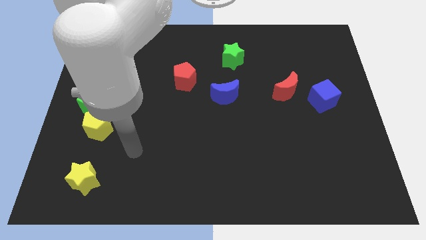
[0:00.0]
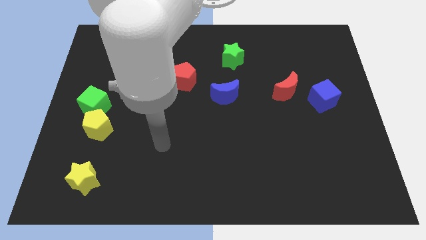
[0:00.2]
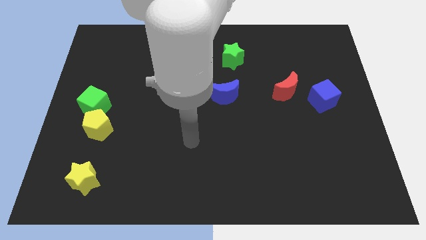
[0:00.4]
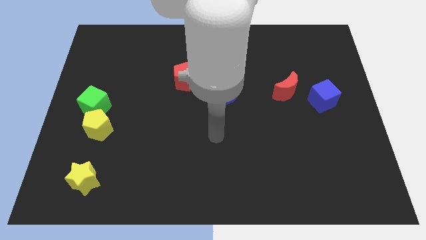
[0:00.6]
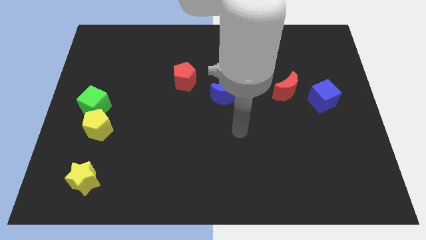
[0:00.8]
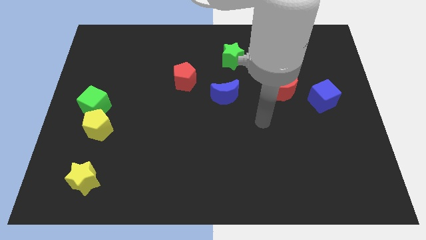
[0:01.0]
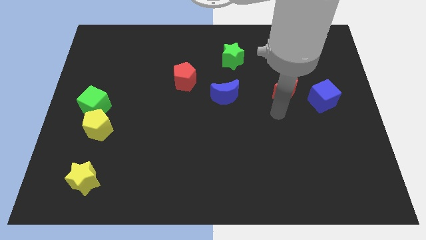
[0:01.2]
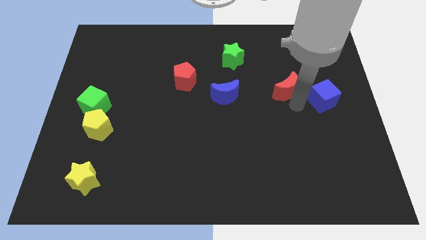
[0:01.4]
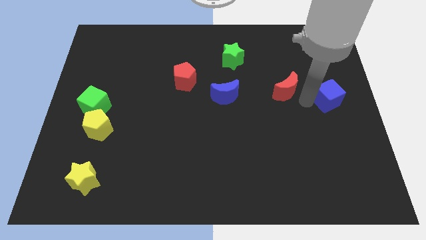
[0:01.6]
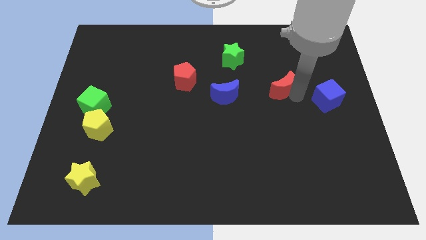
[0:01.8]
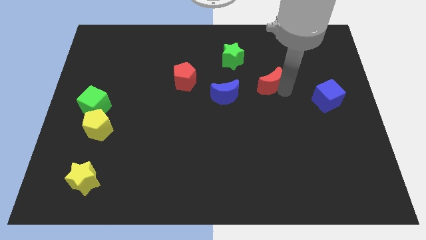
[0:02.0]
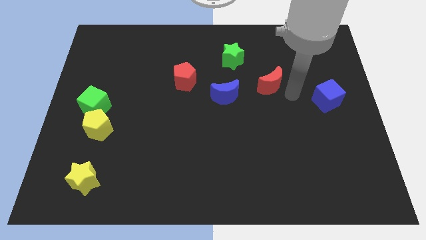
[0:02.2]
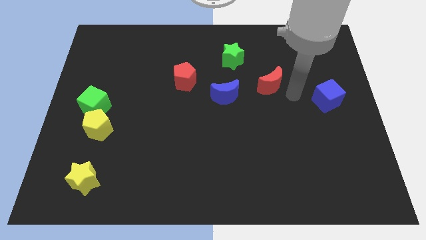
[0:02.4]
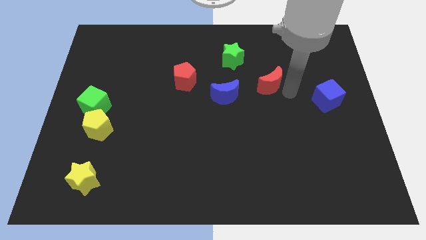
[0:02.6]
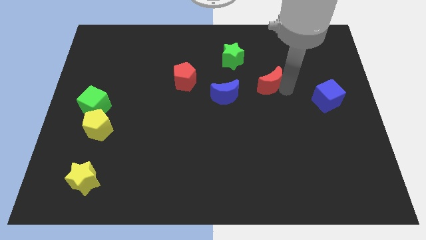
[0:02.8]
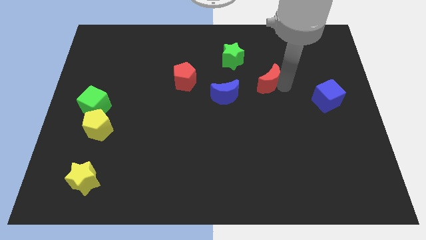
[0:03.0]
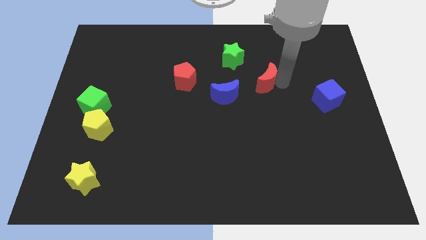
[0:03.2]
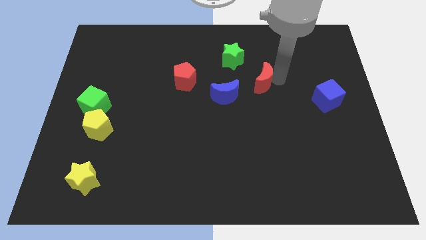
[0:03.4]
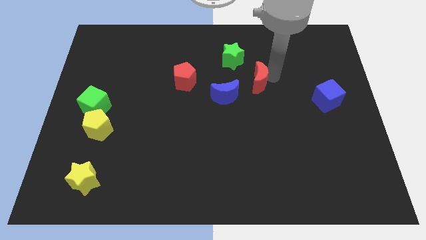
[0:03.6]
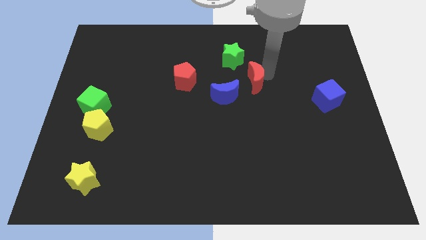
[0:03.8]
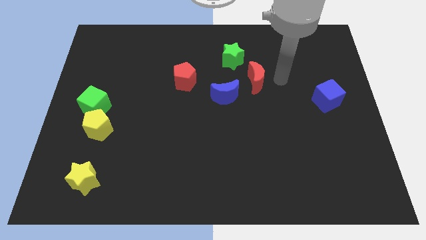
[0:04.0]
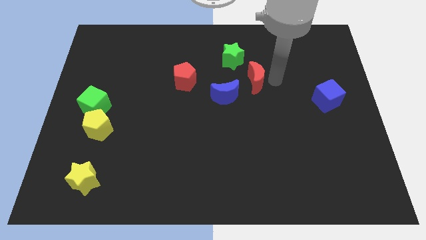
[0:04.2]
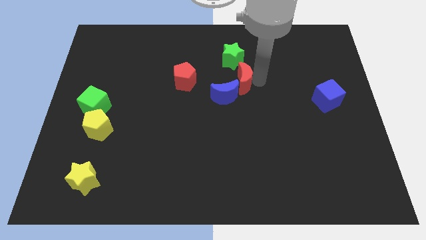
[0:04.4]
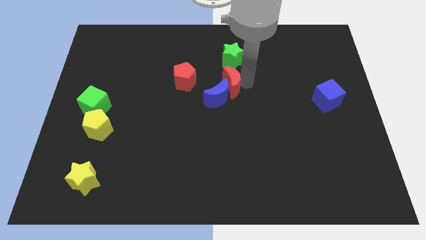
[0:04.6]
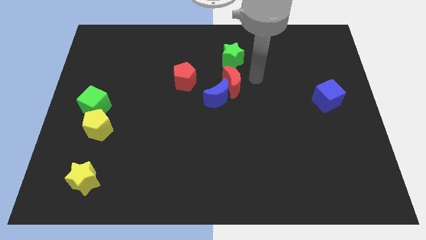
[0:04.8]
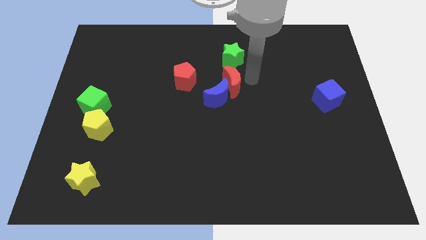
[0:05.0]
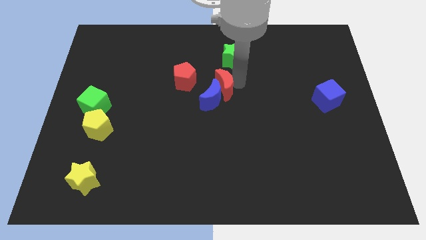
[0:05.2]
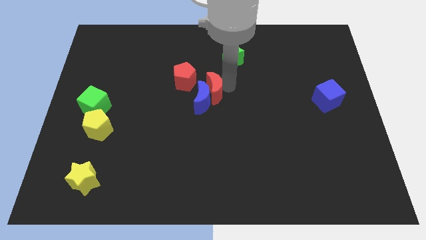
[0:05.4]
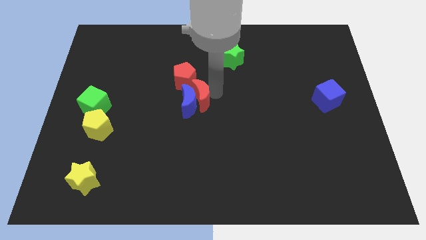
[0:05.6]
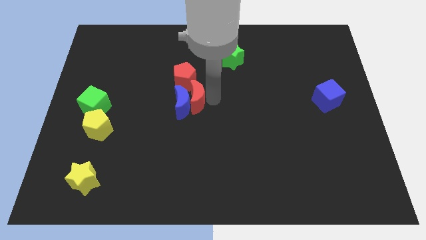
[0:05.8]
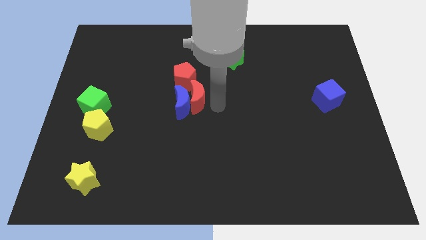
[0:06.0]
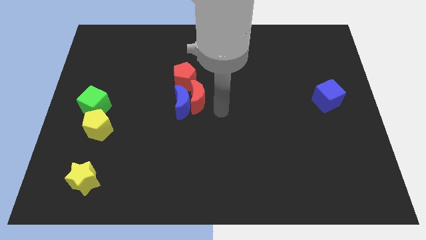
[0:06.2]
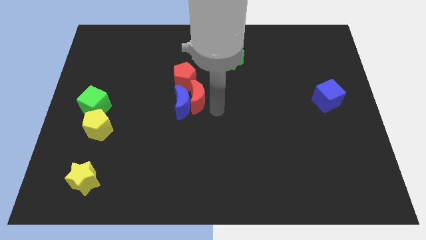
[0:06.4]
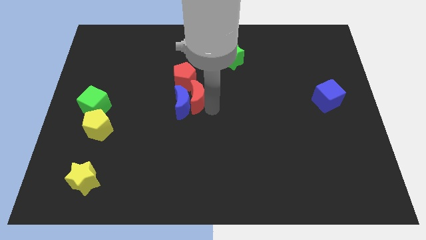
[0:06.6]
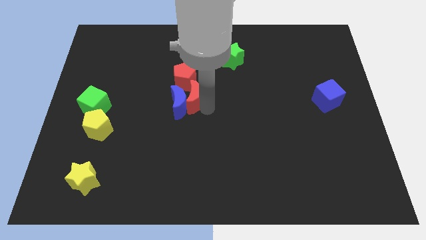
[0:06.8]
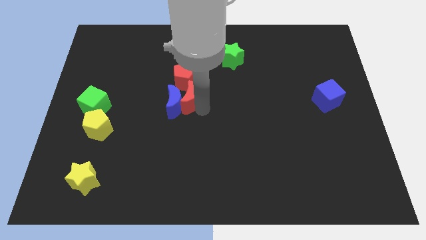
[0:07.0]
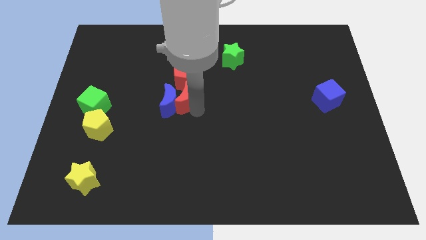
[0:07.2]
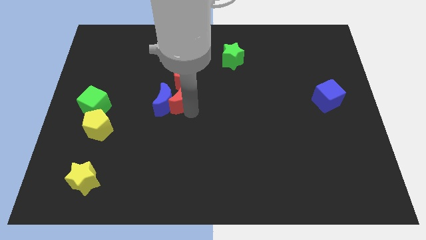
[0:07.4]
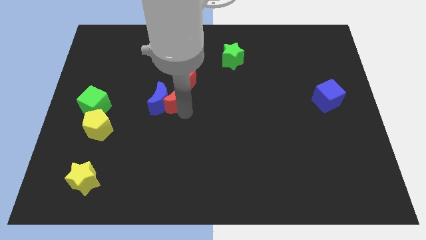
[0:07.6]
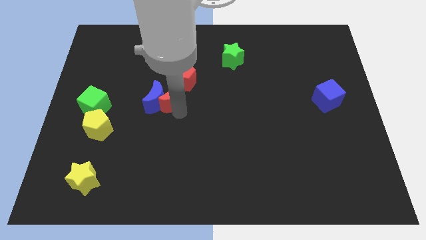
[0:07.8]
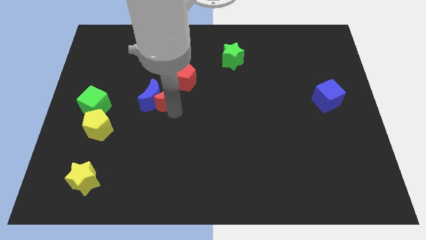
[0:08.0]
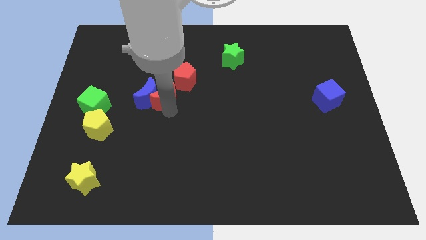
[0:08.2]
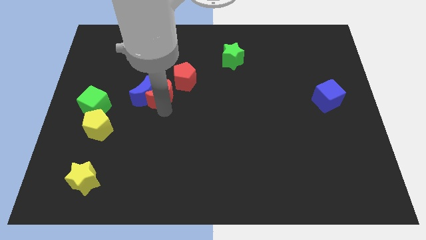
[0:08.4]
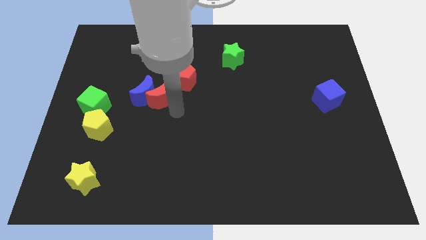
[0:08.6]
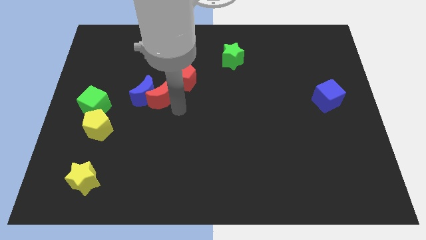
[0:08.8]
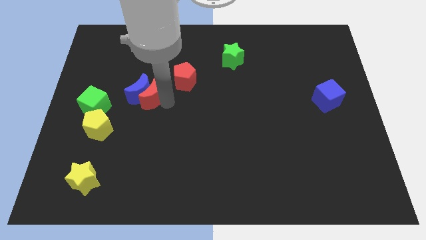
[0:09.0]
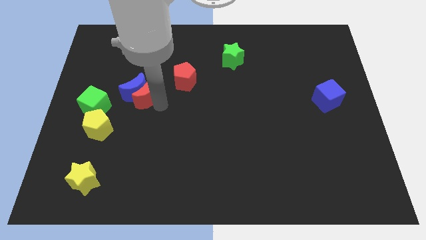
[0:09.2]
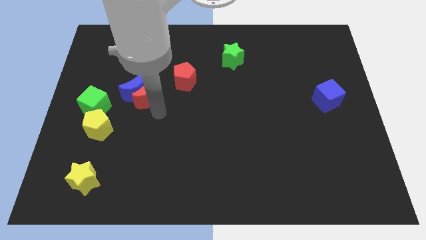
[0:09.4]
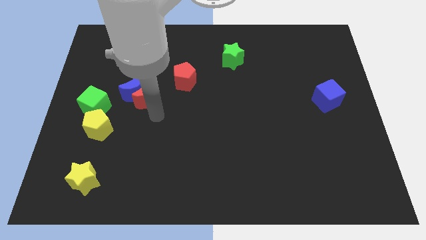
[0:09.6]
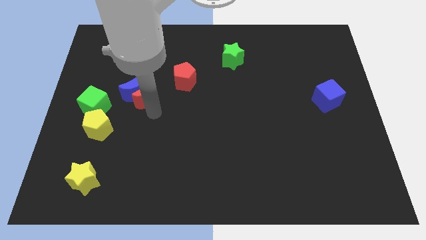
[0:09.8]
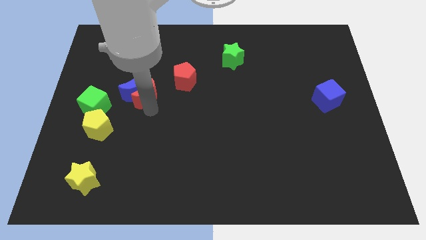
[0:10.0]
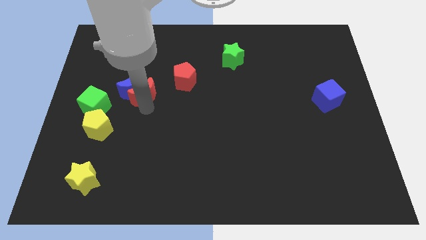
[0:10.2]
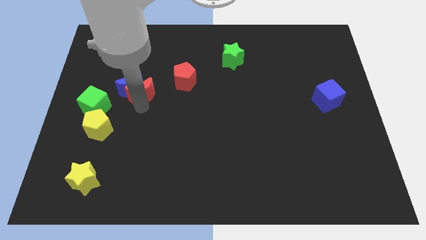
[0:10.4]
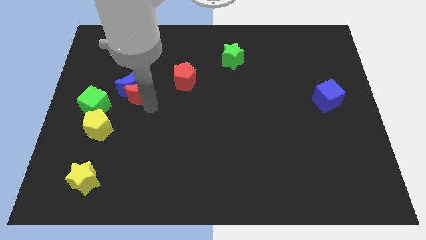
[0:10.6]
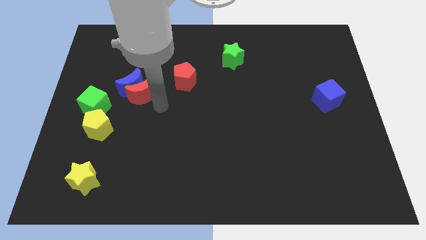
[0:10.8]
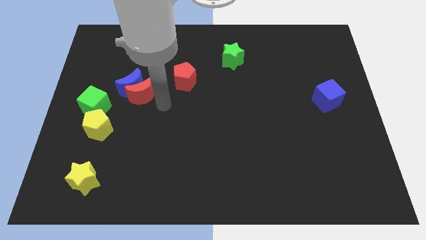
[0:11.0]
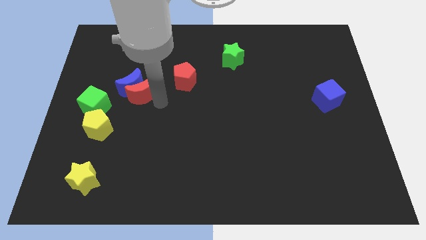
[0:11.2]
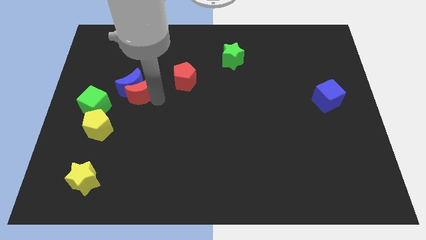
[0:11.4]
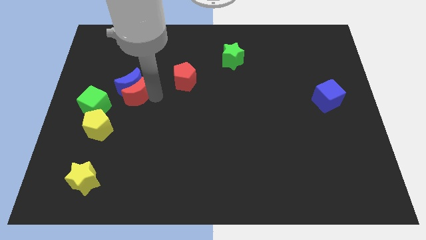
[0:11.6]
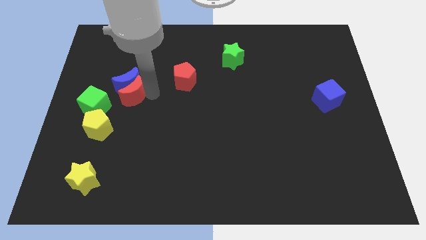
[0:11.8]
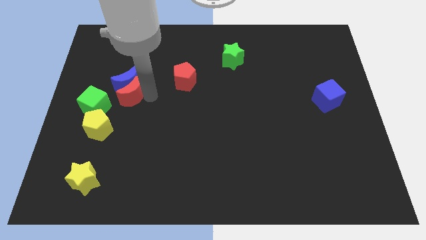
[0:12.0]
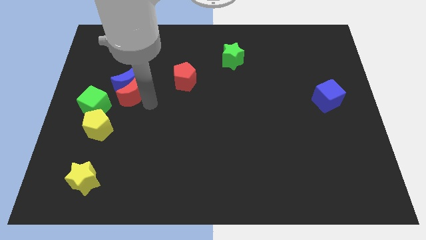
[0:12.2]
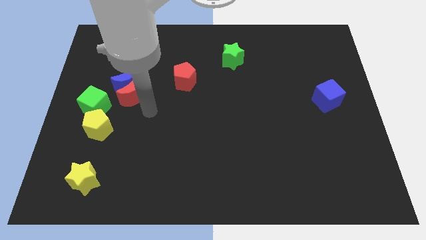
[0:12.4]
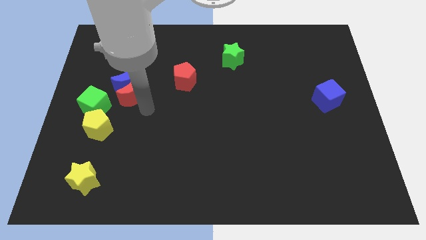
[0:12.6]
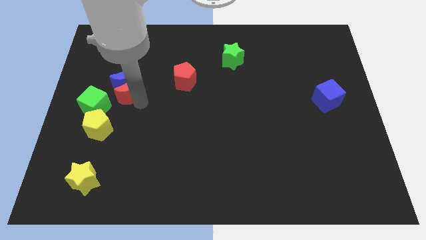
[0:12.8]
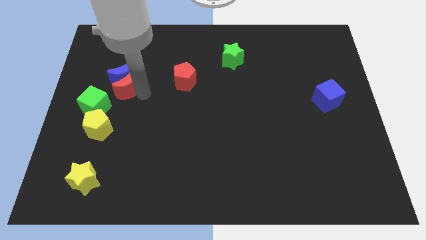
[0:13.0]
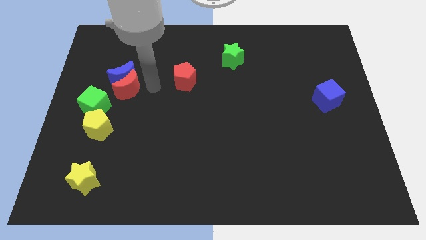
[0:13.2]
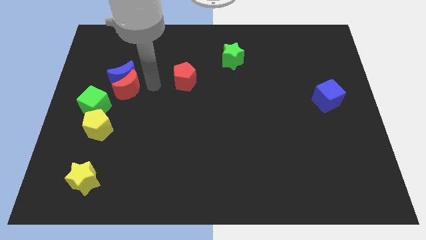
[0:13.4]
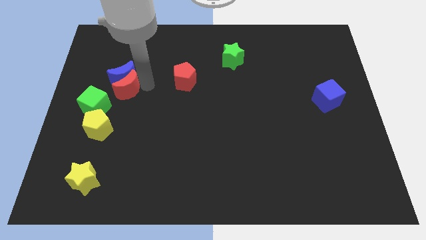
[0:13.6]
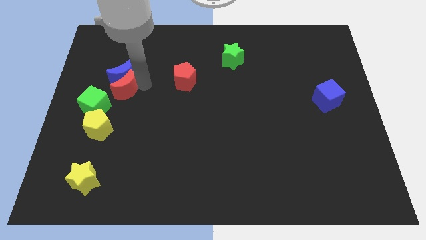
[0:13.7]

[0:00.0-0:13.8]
push the red moon above the yellow pentagon
